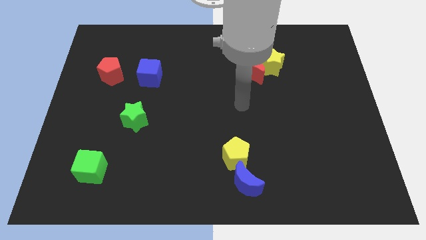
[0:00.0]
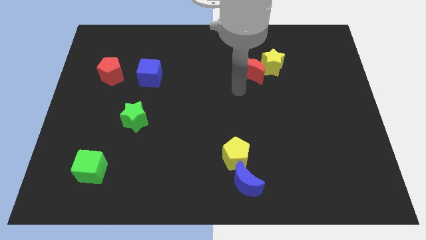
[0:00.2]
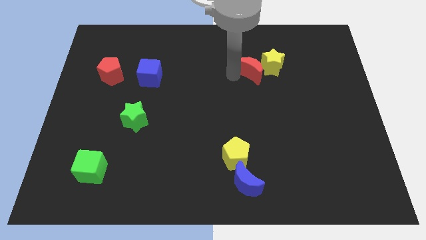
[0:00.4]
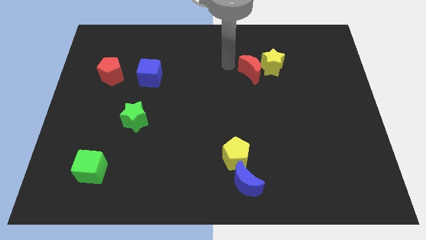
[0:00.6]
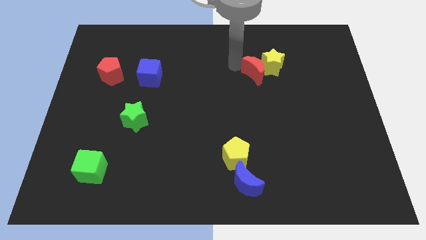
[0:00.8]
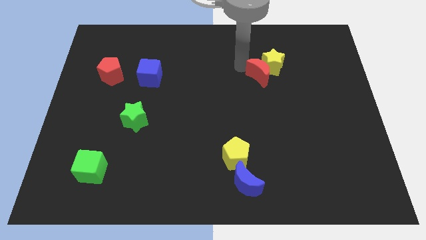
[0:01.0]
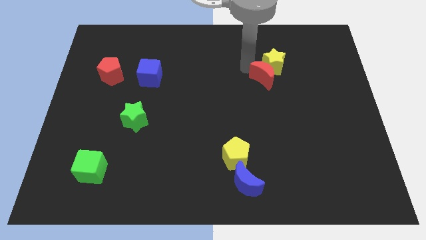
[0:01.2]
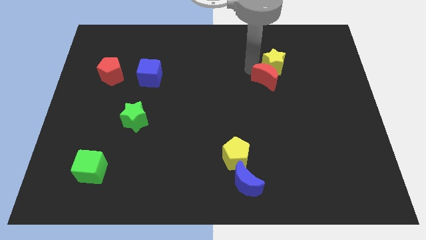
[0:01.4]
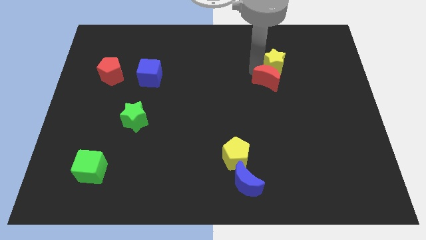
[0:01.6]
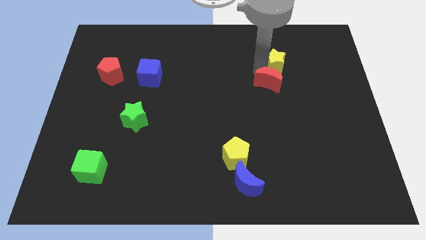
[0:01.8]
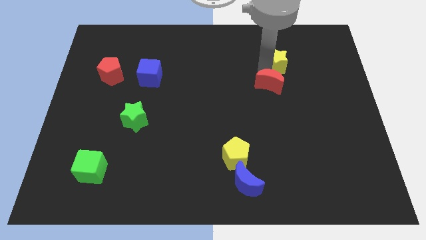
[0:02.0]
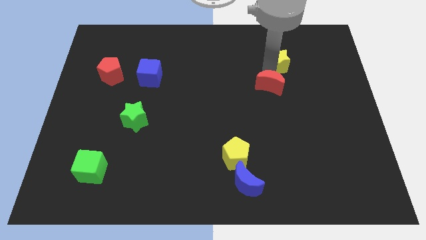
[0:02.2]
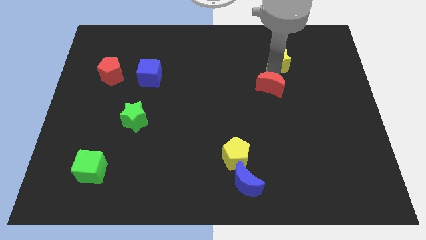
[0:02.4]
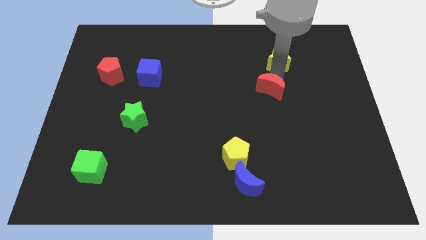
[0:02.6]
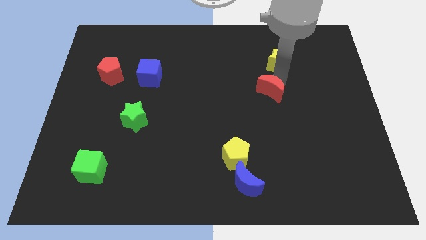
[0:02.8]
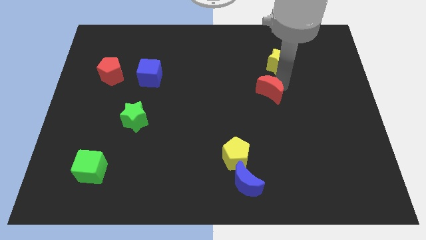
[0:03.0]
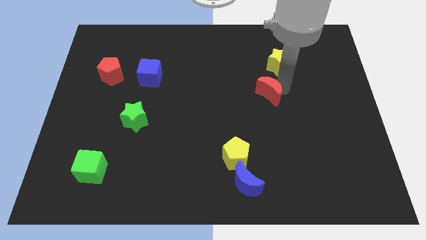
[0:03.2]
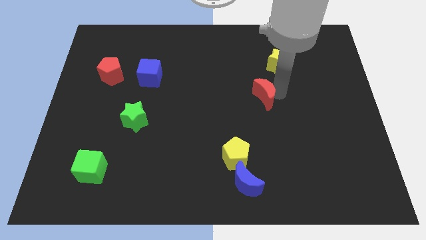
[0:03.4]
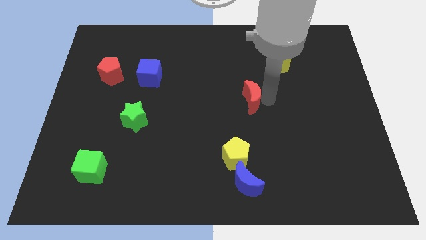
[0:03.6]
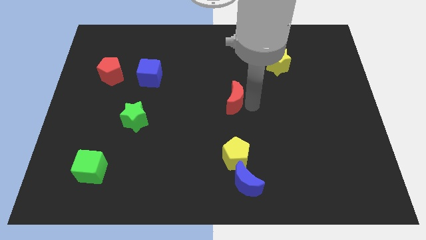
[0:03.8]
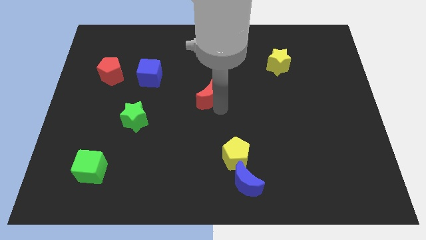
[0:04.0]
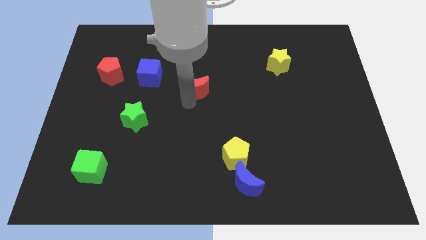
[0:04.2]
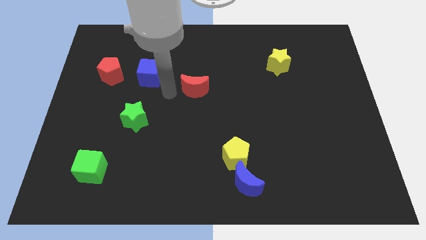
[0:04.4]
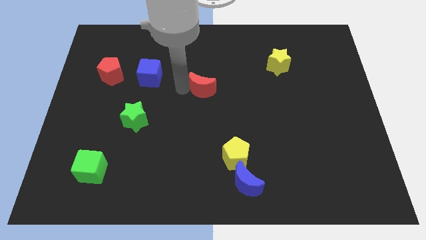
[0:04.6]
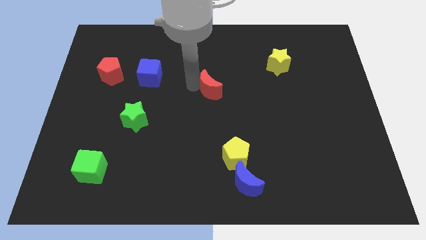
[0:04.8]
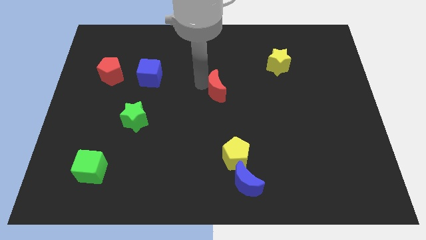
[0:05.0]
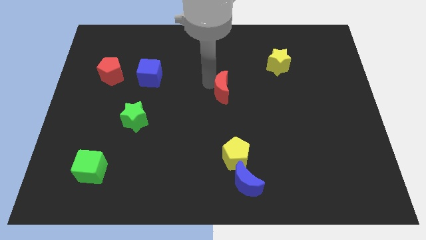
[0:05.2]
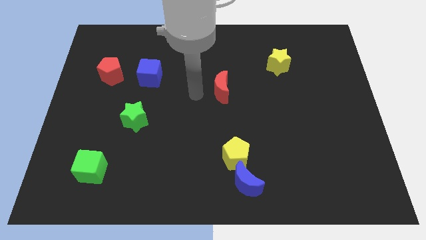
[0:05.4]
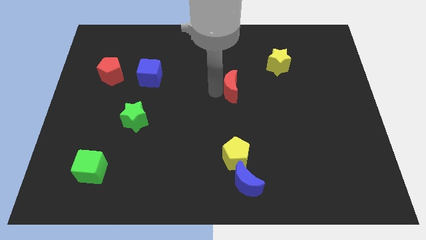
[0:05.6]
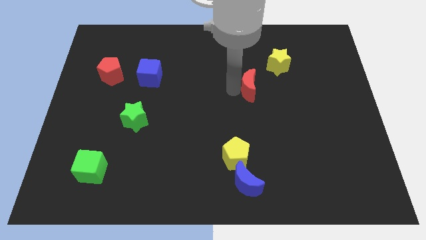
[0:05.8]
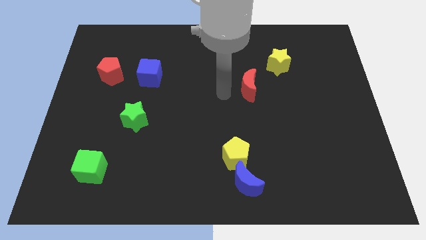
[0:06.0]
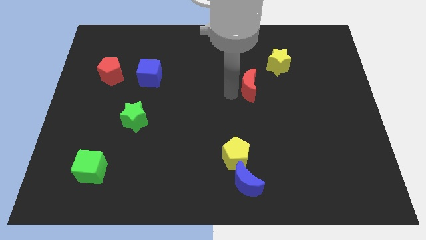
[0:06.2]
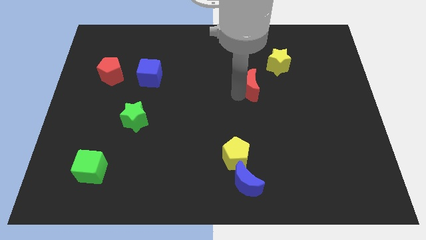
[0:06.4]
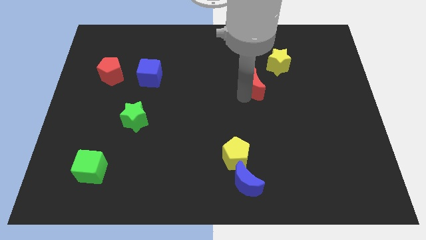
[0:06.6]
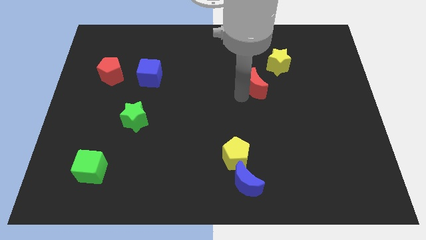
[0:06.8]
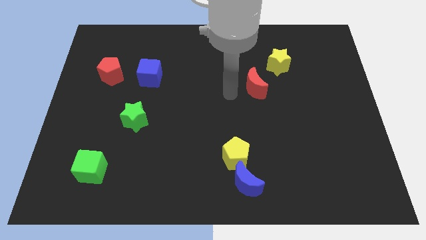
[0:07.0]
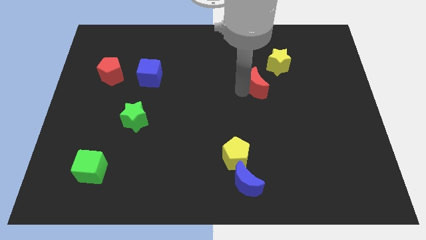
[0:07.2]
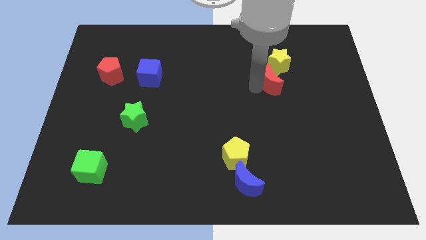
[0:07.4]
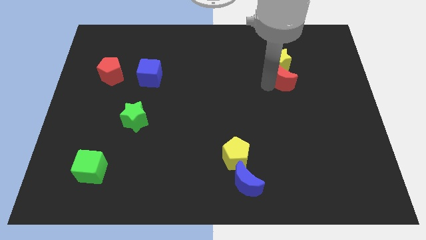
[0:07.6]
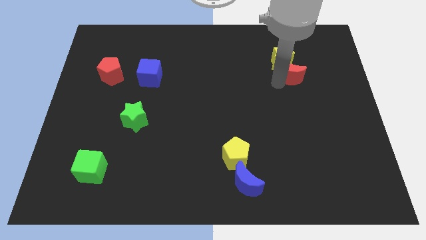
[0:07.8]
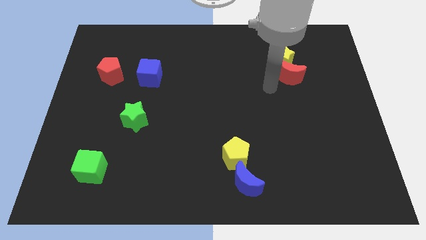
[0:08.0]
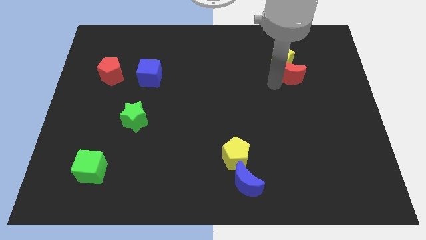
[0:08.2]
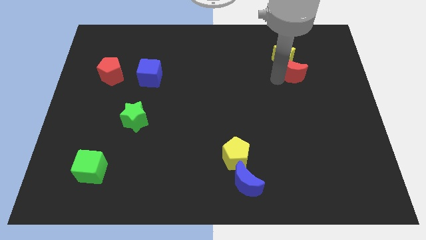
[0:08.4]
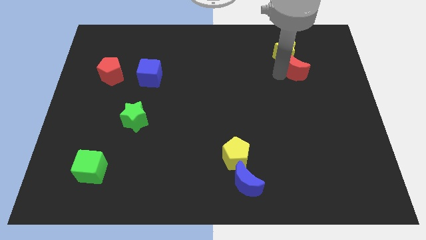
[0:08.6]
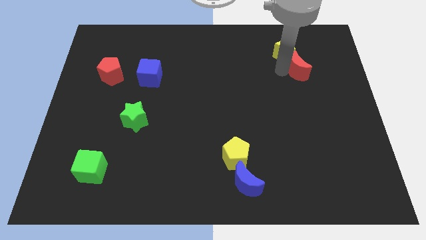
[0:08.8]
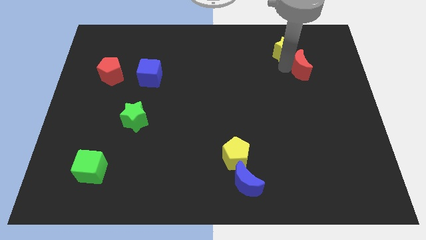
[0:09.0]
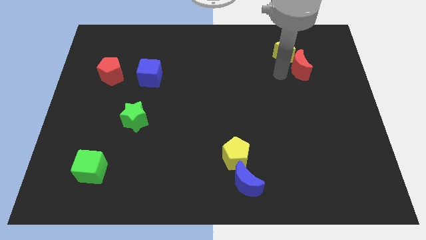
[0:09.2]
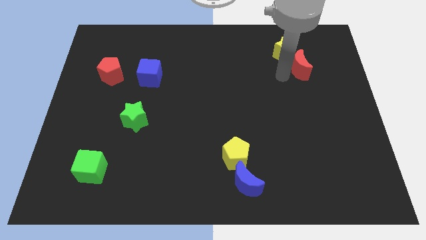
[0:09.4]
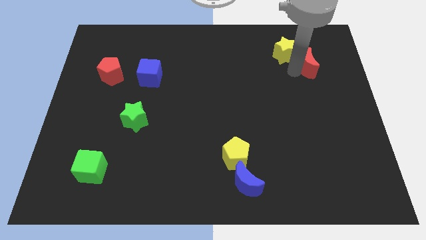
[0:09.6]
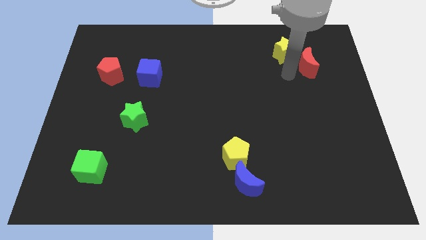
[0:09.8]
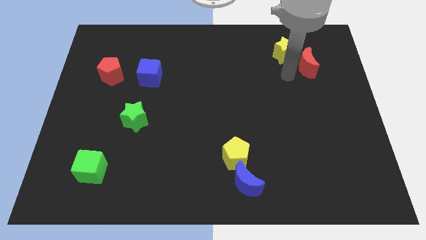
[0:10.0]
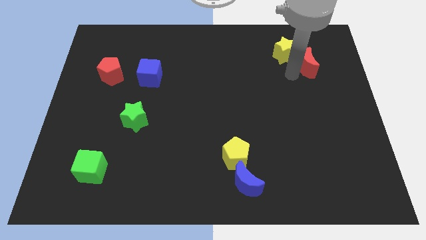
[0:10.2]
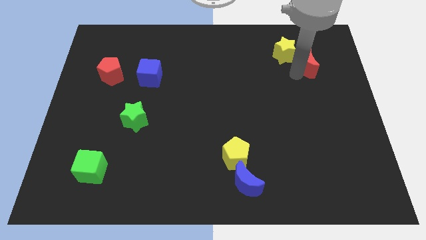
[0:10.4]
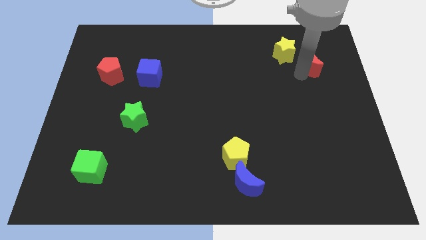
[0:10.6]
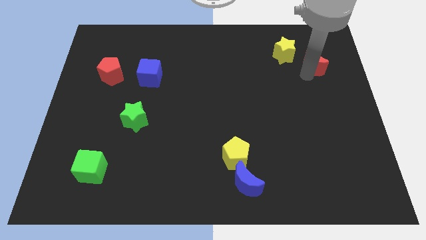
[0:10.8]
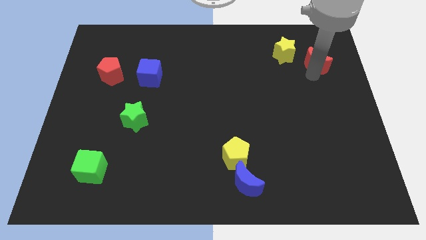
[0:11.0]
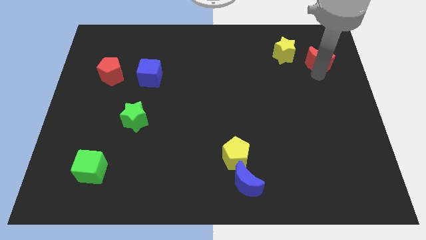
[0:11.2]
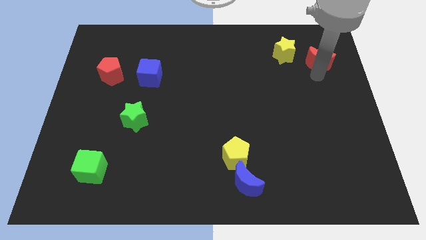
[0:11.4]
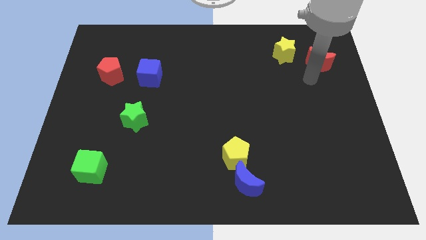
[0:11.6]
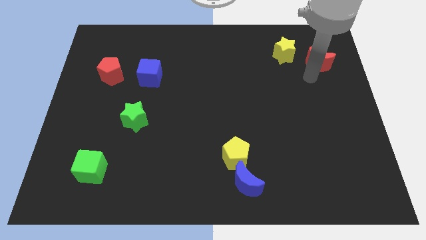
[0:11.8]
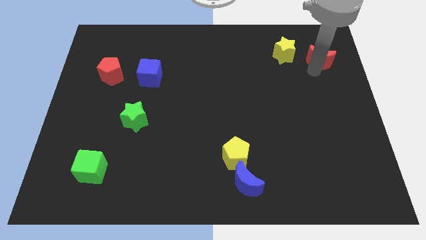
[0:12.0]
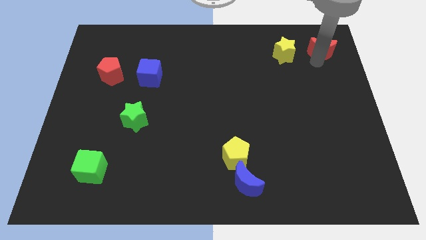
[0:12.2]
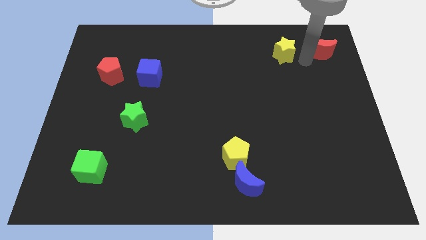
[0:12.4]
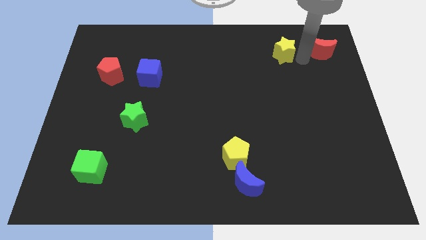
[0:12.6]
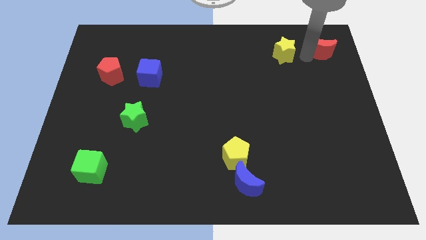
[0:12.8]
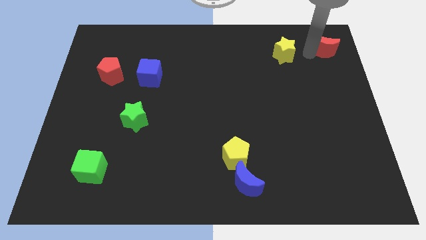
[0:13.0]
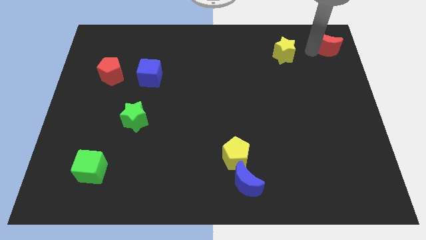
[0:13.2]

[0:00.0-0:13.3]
push the red moon to the top right corner
